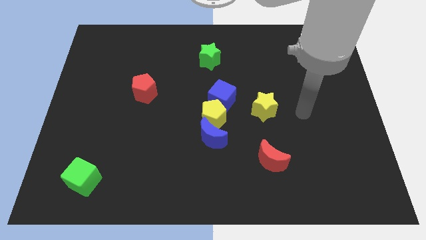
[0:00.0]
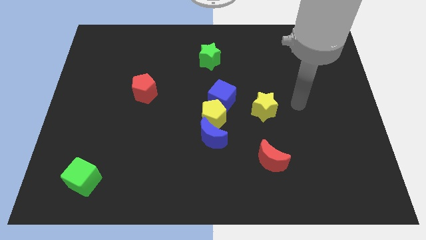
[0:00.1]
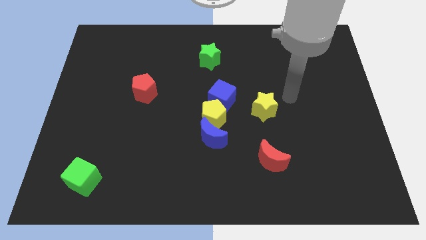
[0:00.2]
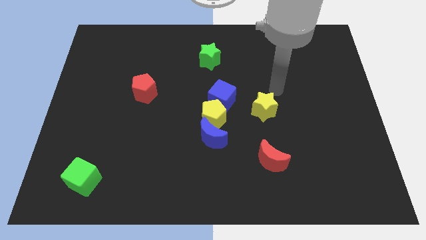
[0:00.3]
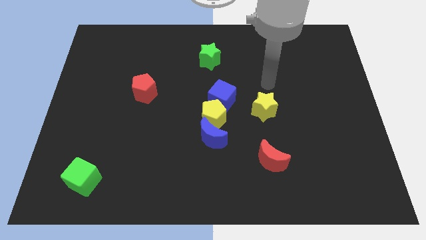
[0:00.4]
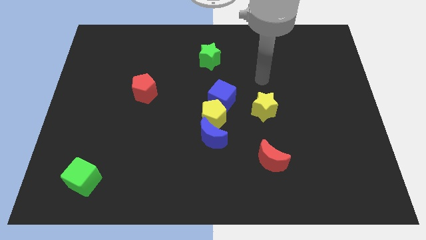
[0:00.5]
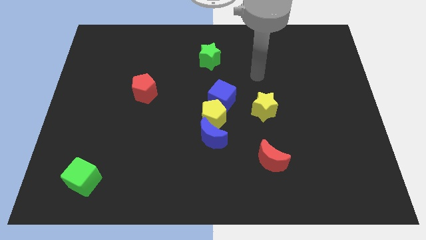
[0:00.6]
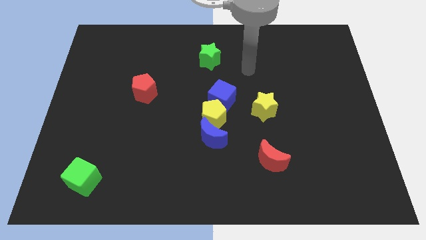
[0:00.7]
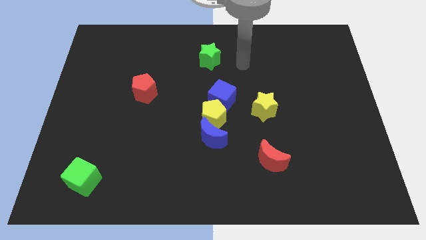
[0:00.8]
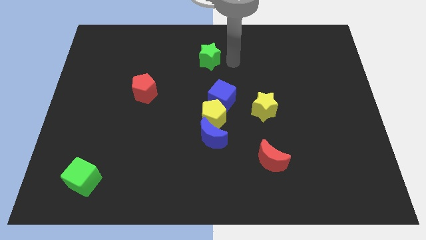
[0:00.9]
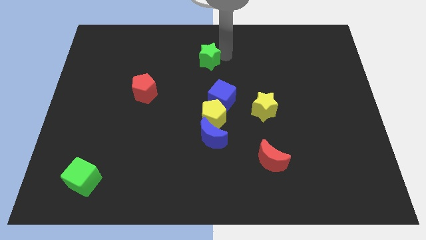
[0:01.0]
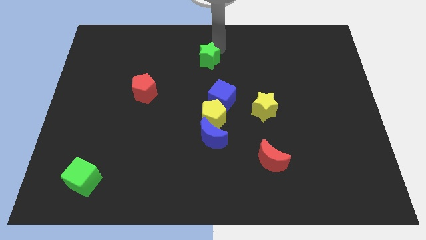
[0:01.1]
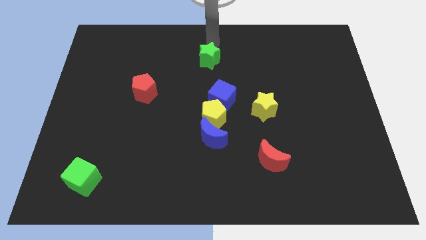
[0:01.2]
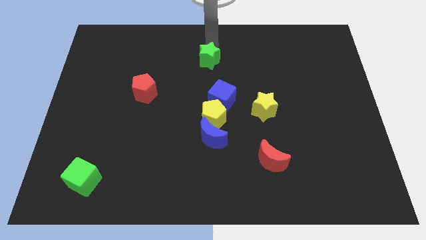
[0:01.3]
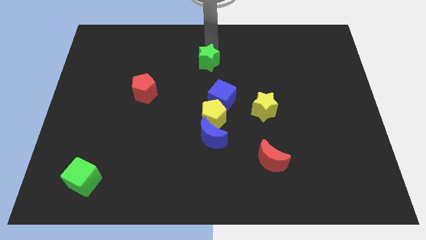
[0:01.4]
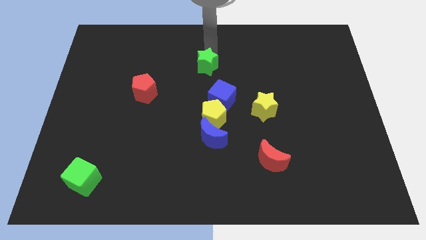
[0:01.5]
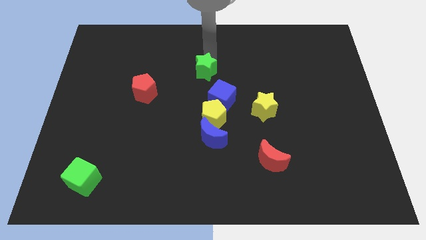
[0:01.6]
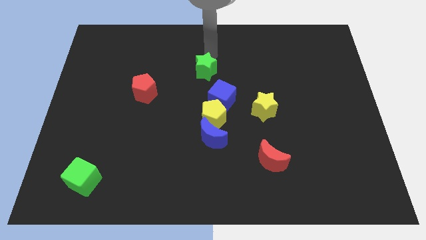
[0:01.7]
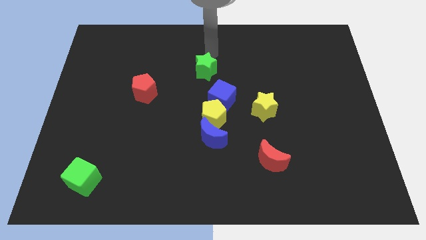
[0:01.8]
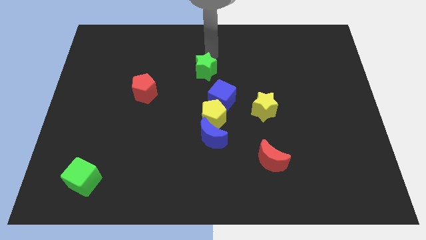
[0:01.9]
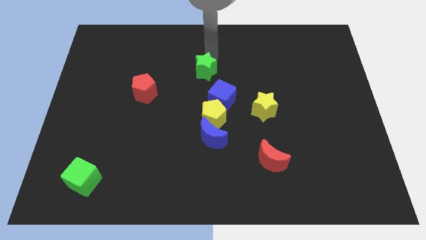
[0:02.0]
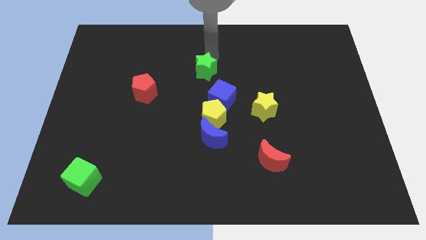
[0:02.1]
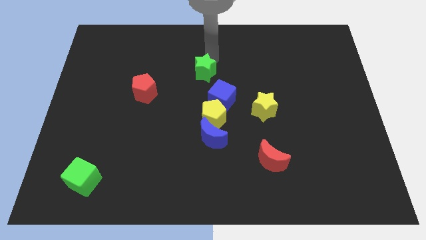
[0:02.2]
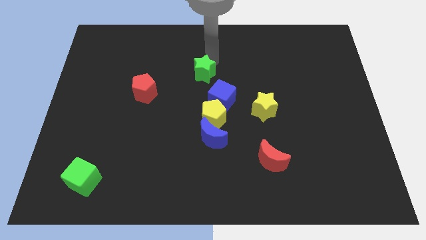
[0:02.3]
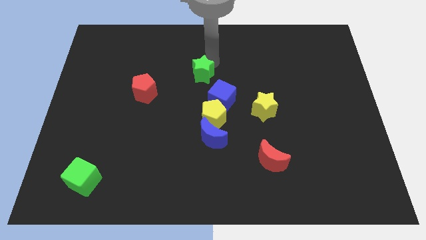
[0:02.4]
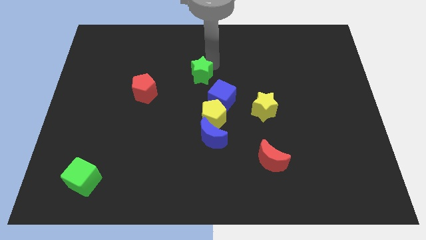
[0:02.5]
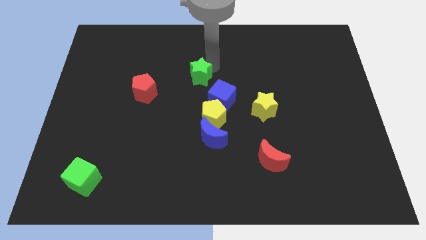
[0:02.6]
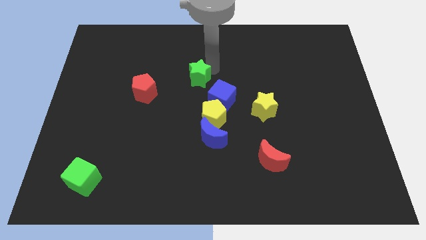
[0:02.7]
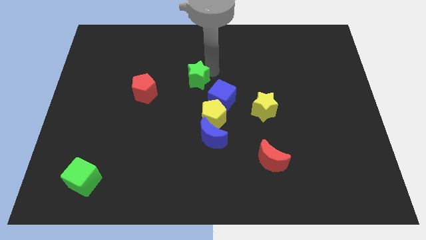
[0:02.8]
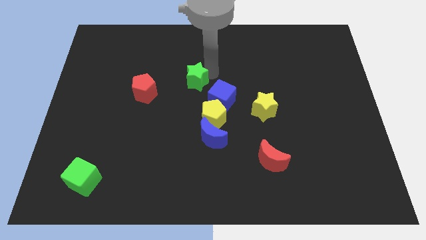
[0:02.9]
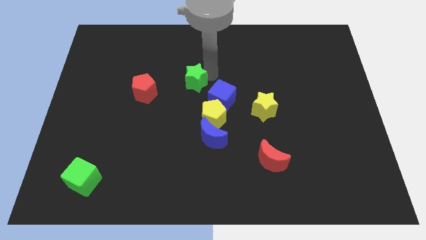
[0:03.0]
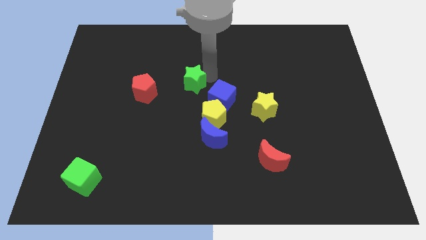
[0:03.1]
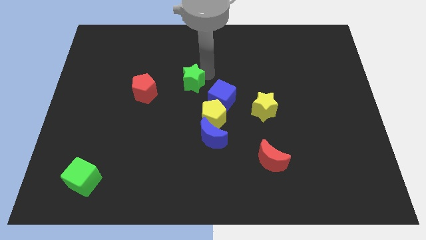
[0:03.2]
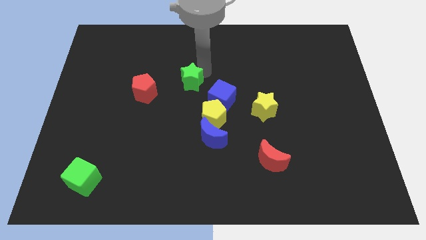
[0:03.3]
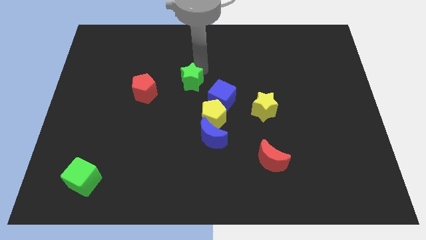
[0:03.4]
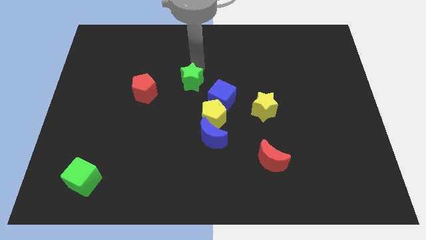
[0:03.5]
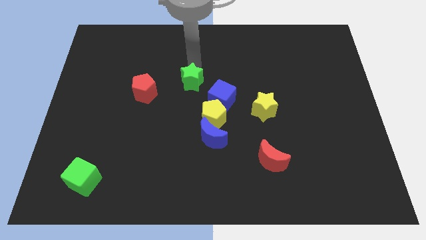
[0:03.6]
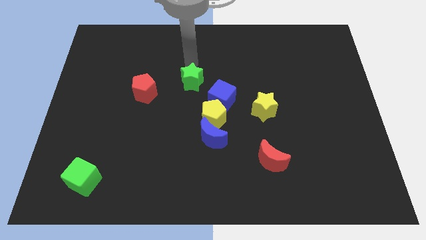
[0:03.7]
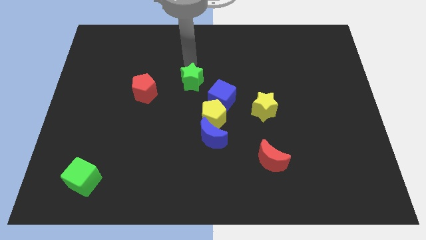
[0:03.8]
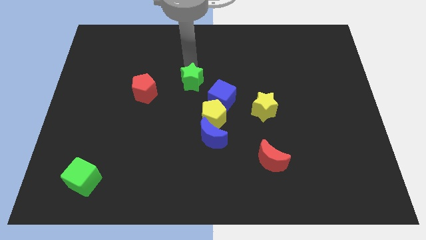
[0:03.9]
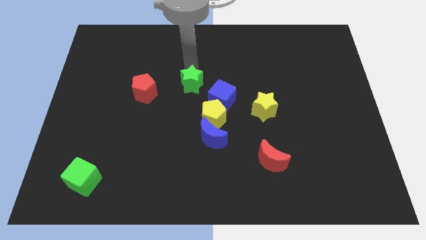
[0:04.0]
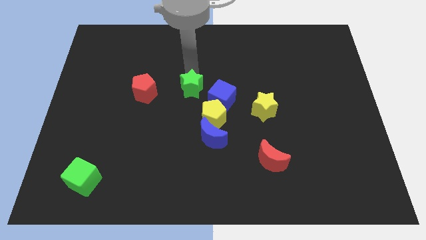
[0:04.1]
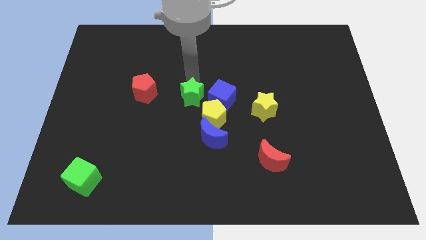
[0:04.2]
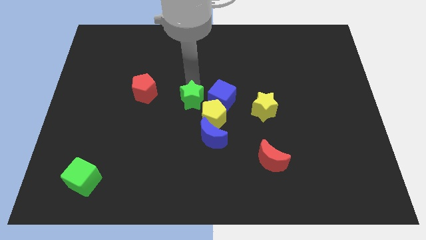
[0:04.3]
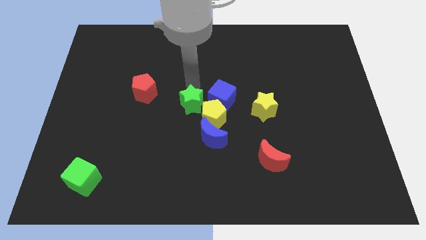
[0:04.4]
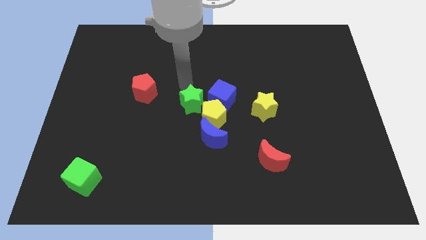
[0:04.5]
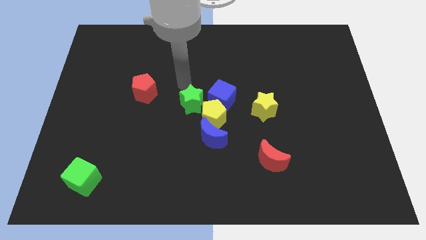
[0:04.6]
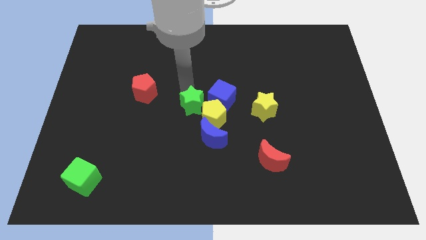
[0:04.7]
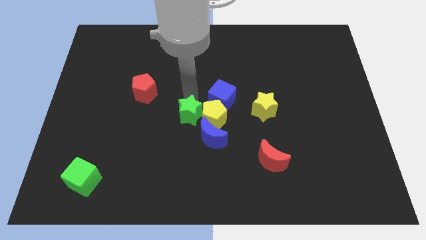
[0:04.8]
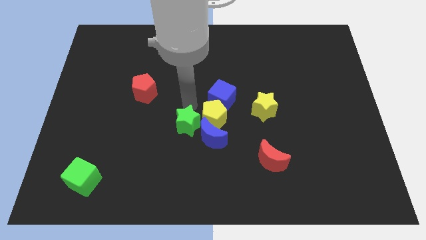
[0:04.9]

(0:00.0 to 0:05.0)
put the green star next to the blue moon

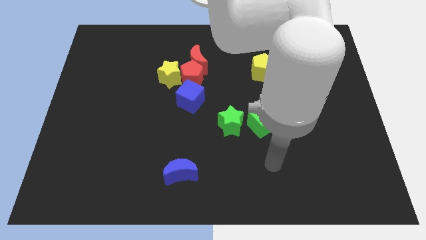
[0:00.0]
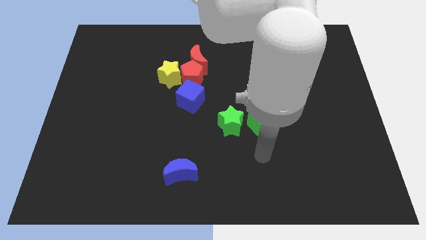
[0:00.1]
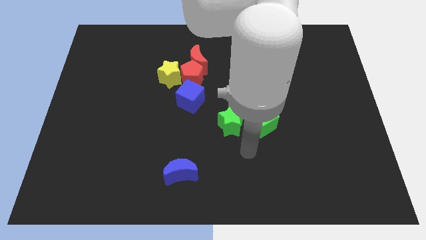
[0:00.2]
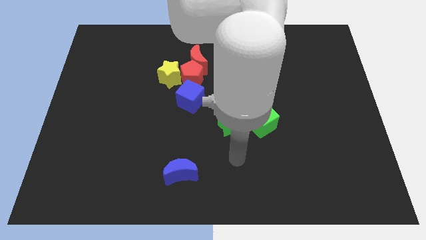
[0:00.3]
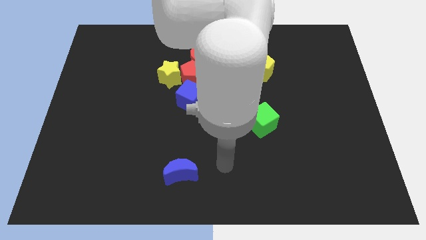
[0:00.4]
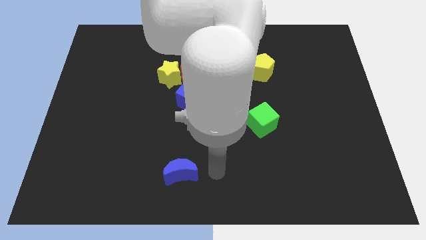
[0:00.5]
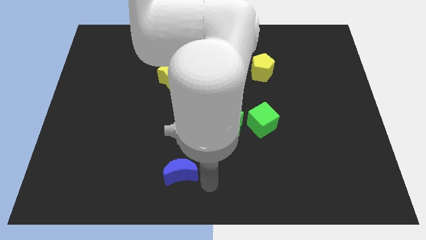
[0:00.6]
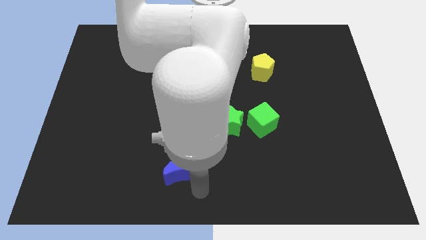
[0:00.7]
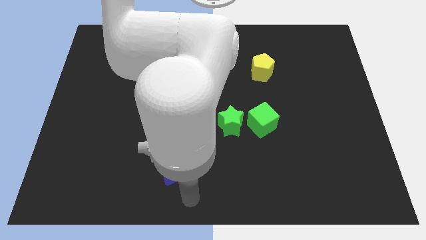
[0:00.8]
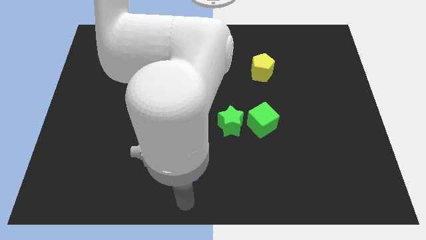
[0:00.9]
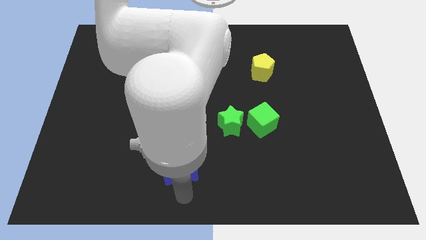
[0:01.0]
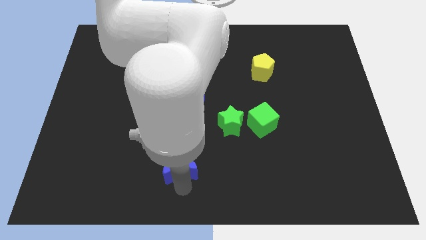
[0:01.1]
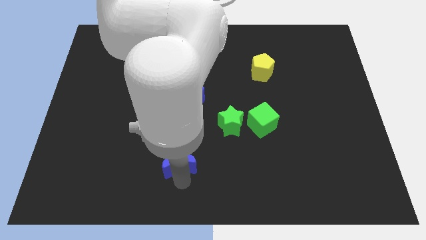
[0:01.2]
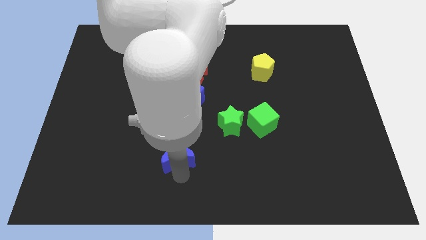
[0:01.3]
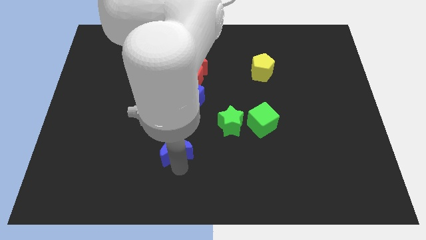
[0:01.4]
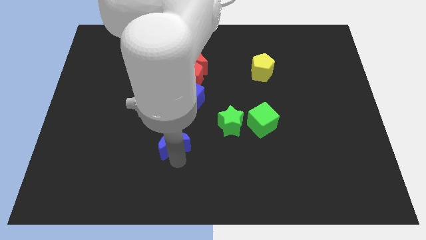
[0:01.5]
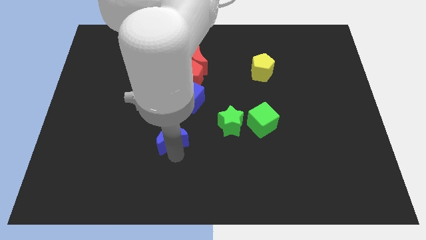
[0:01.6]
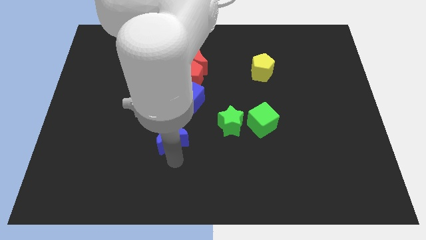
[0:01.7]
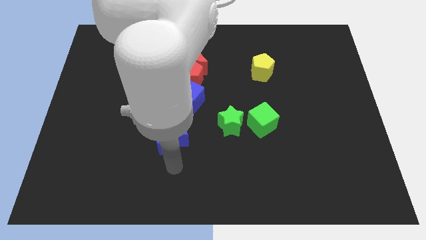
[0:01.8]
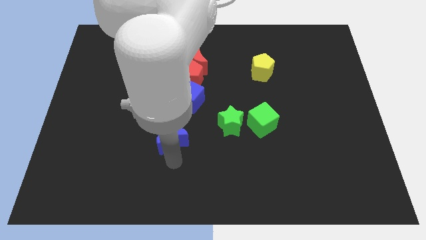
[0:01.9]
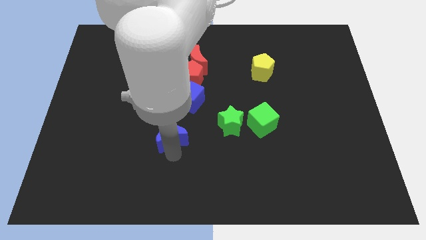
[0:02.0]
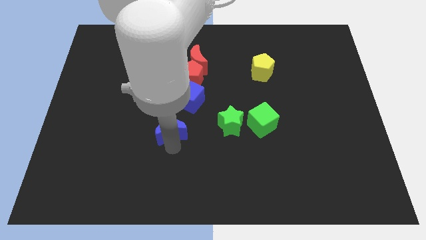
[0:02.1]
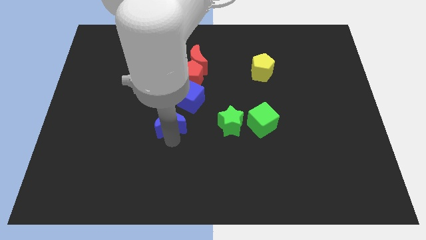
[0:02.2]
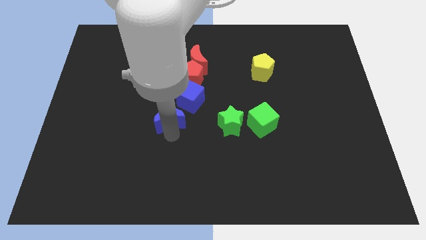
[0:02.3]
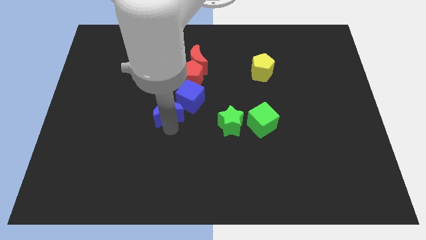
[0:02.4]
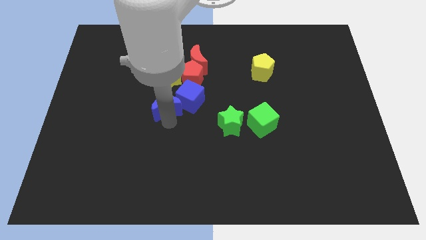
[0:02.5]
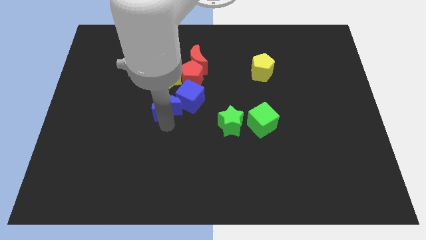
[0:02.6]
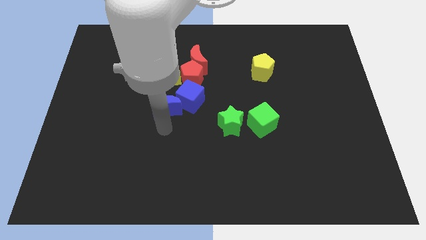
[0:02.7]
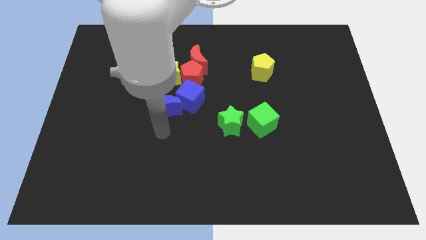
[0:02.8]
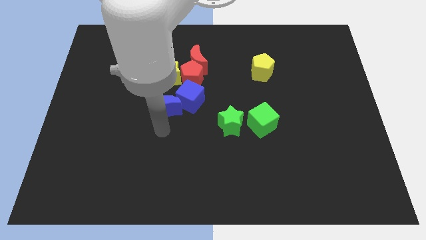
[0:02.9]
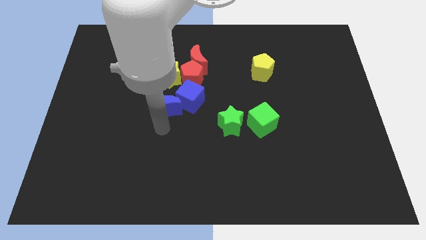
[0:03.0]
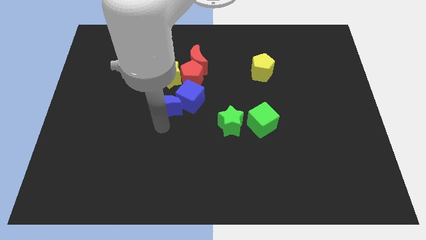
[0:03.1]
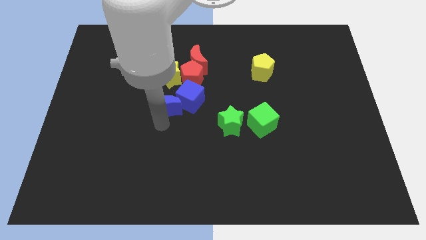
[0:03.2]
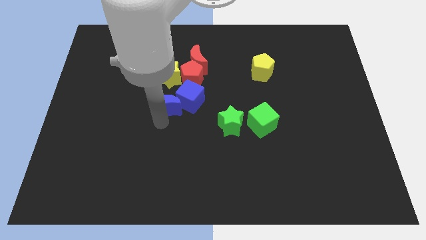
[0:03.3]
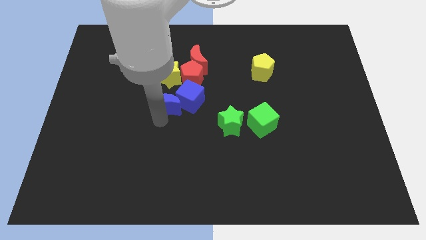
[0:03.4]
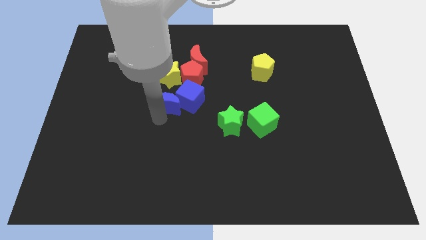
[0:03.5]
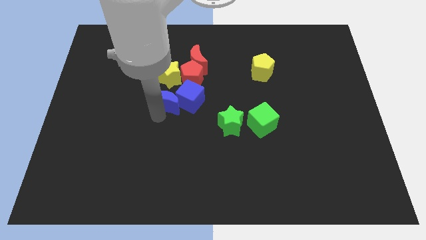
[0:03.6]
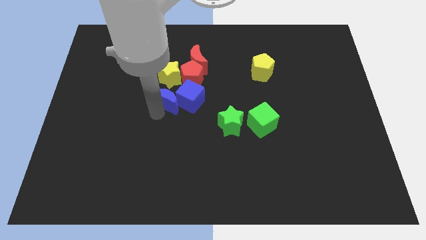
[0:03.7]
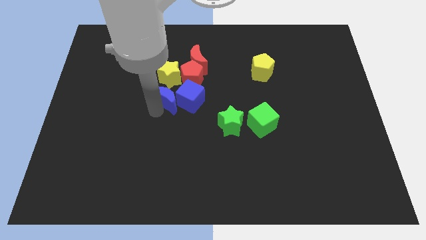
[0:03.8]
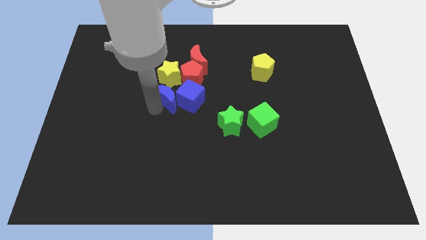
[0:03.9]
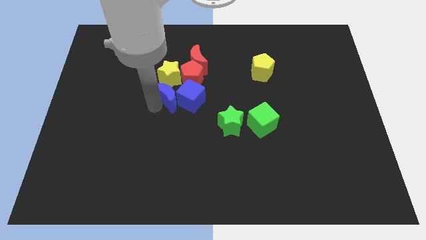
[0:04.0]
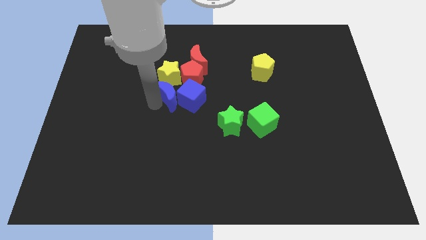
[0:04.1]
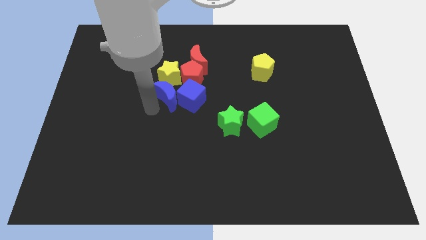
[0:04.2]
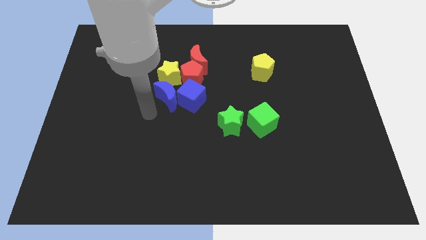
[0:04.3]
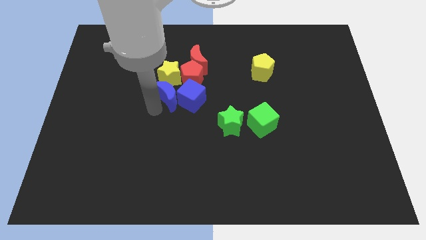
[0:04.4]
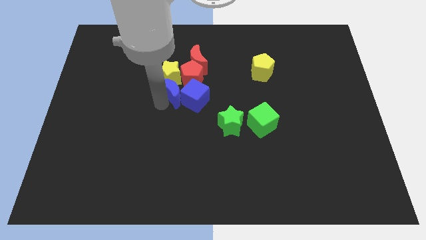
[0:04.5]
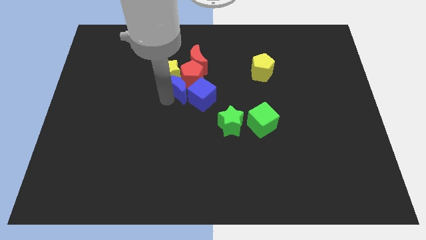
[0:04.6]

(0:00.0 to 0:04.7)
put the blue moon to the red pentagon
